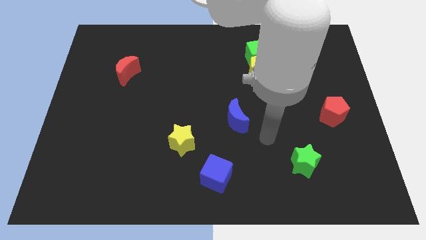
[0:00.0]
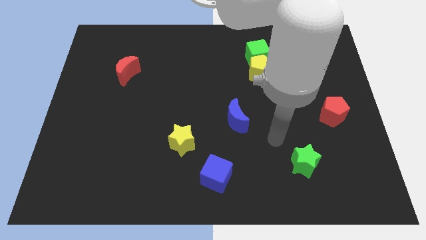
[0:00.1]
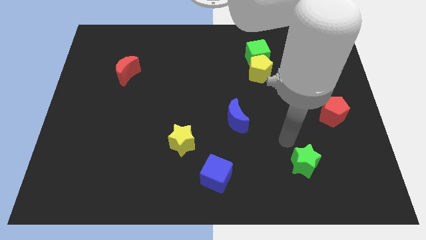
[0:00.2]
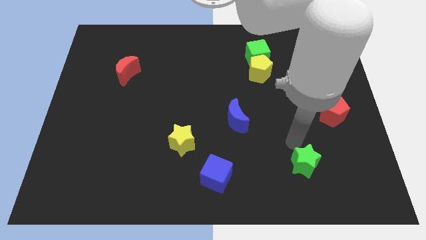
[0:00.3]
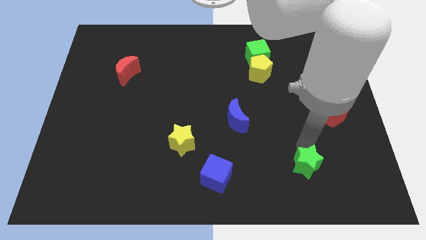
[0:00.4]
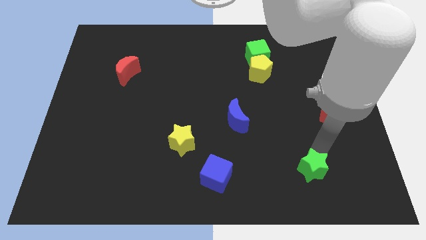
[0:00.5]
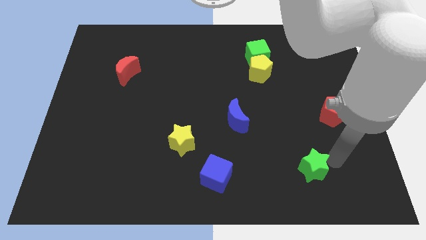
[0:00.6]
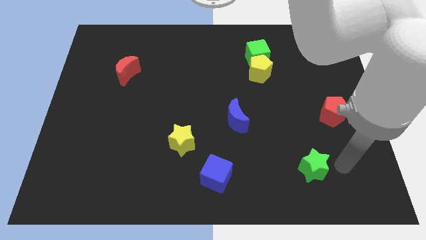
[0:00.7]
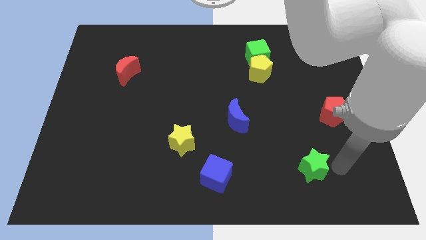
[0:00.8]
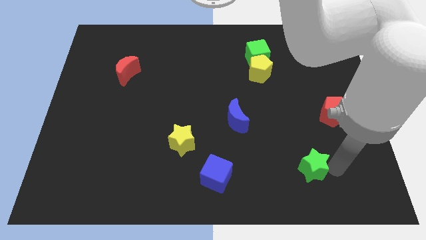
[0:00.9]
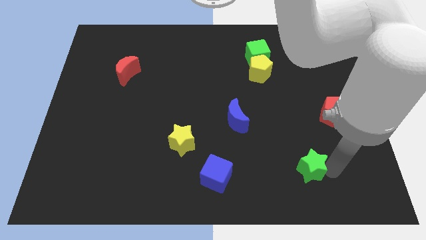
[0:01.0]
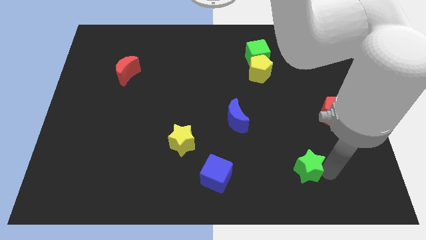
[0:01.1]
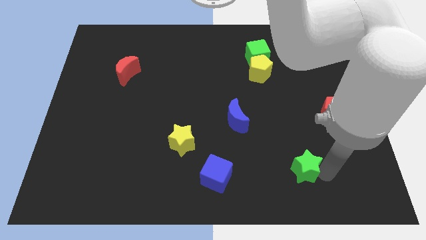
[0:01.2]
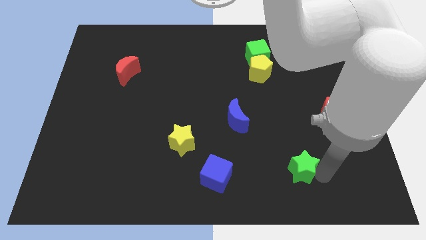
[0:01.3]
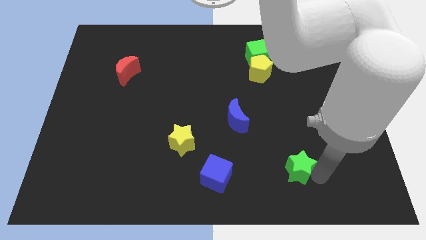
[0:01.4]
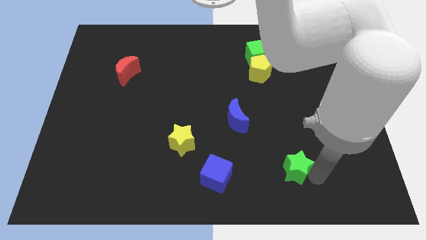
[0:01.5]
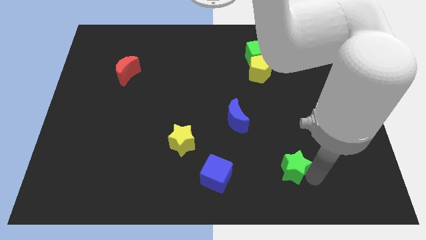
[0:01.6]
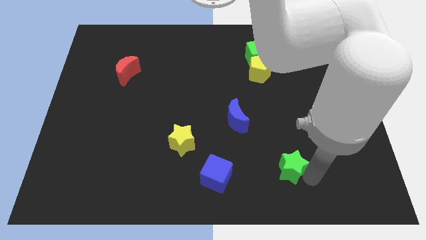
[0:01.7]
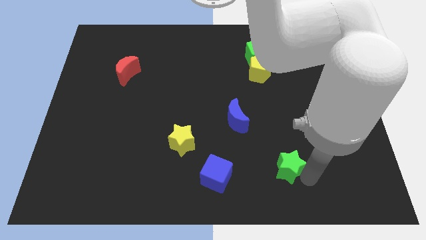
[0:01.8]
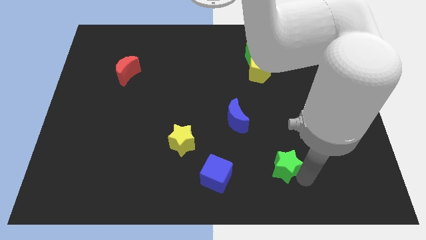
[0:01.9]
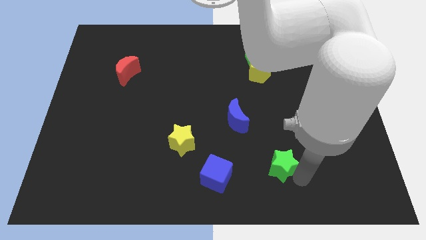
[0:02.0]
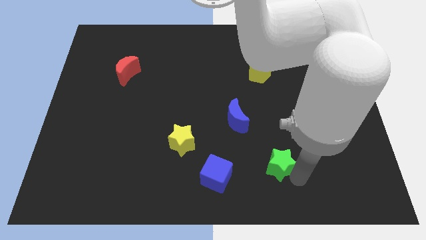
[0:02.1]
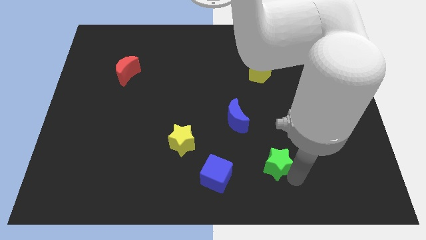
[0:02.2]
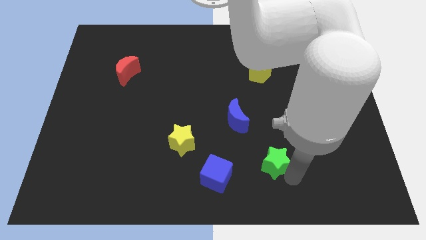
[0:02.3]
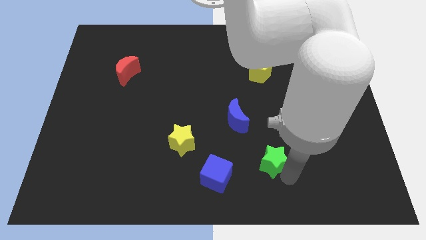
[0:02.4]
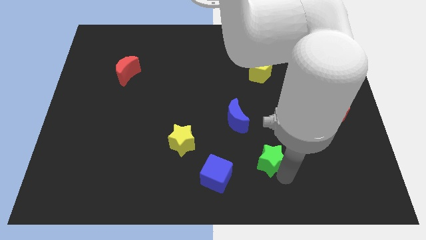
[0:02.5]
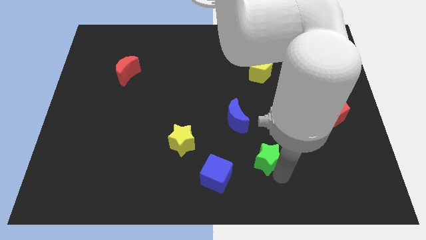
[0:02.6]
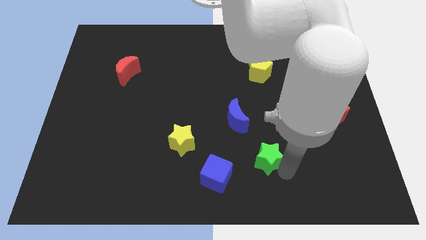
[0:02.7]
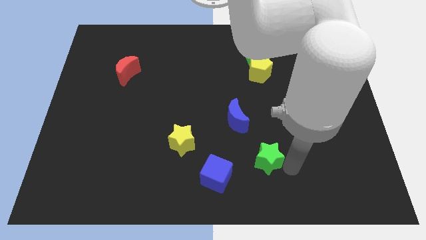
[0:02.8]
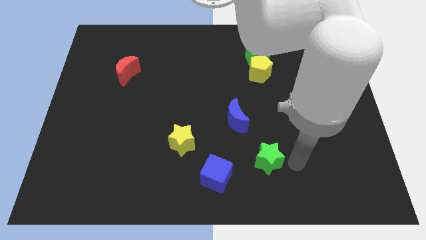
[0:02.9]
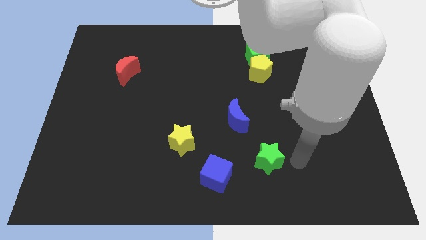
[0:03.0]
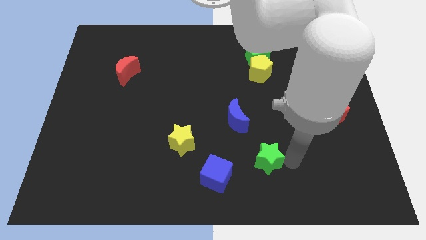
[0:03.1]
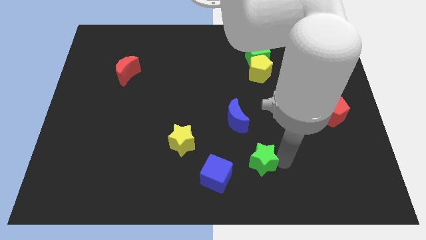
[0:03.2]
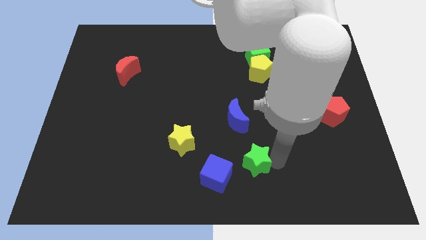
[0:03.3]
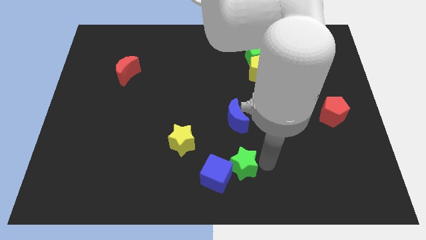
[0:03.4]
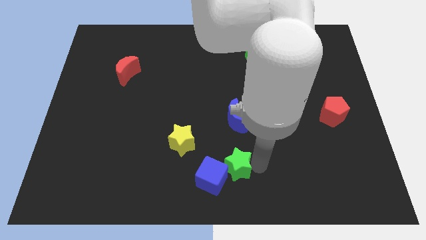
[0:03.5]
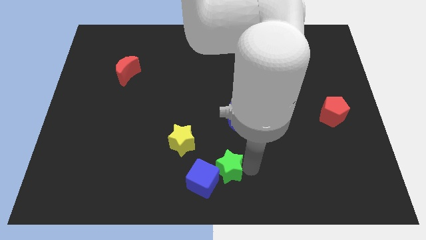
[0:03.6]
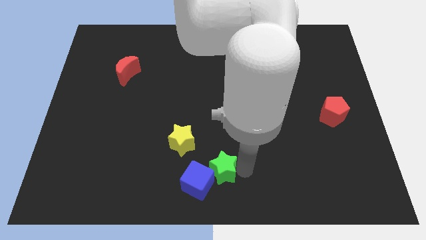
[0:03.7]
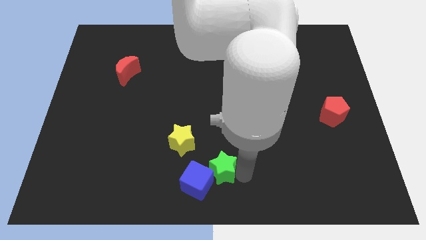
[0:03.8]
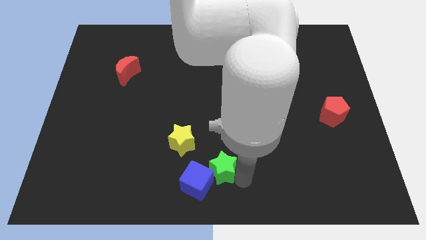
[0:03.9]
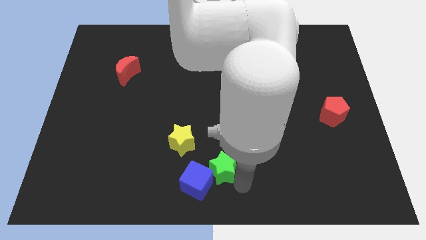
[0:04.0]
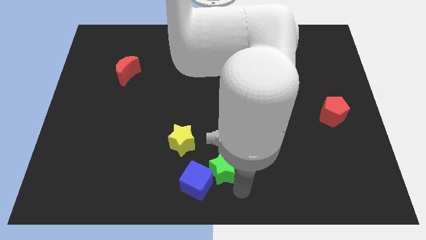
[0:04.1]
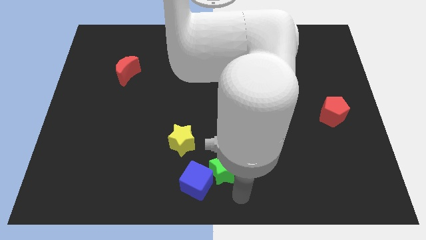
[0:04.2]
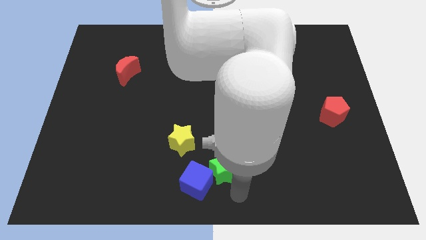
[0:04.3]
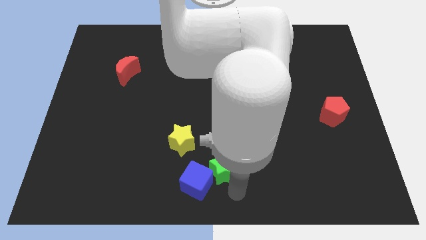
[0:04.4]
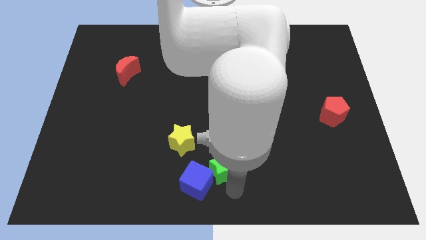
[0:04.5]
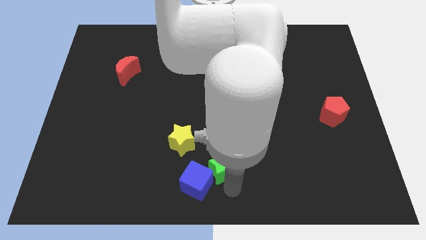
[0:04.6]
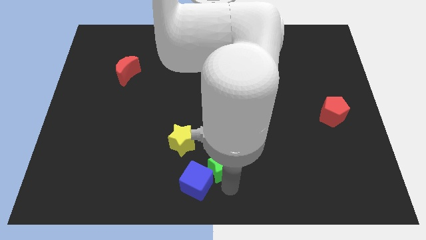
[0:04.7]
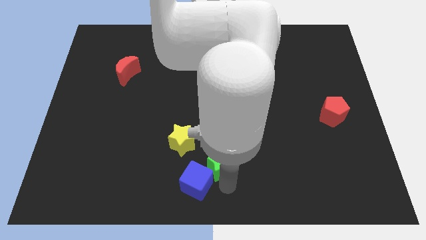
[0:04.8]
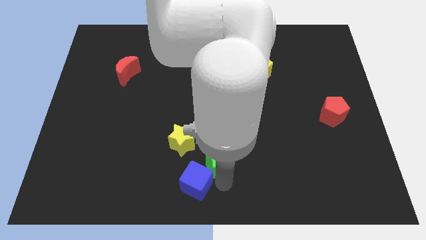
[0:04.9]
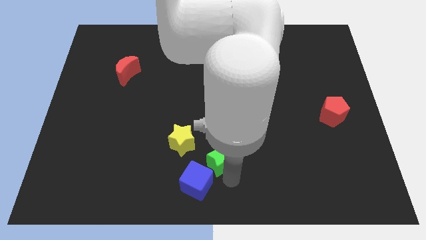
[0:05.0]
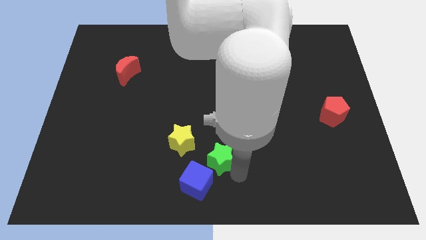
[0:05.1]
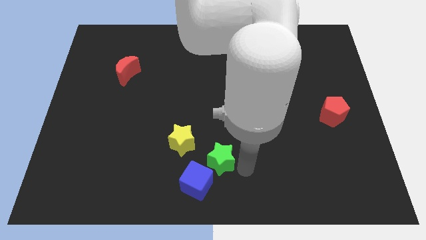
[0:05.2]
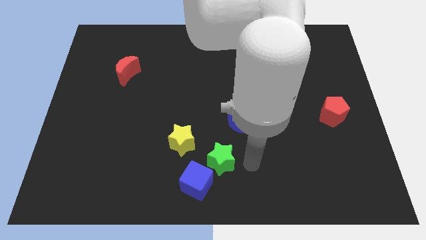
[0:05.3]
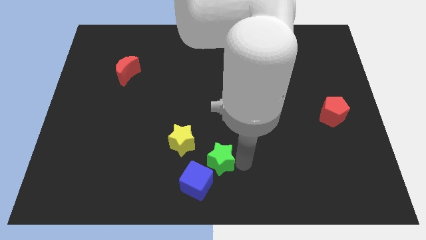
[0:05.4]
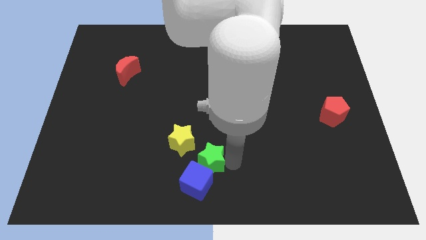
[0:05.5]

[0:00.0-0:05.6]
push the green star left

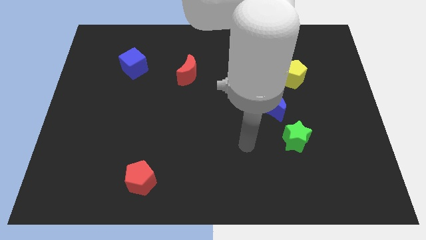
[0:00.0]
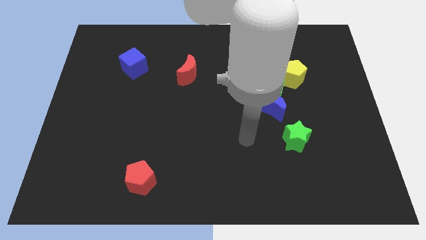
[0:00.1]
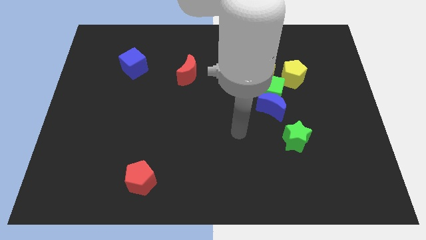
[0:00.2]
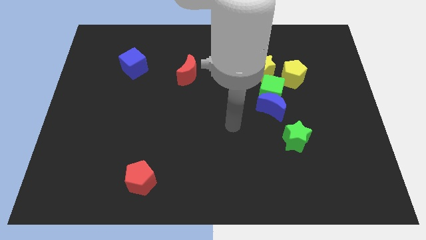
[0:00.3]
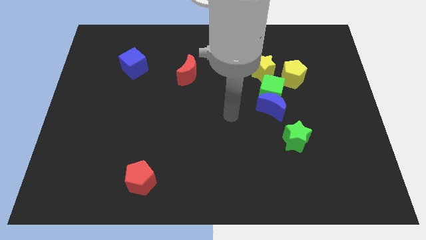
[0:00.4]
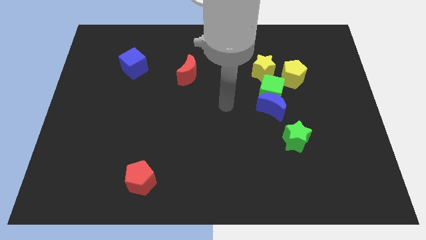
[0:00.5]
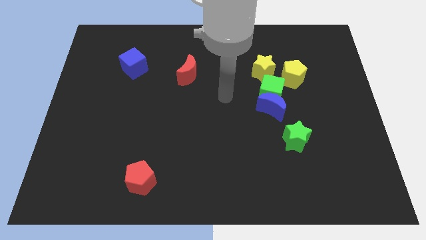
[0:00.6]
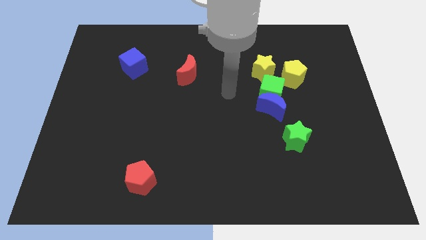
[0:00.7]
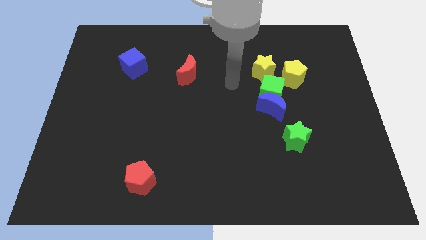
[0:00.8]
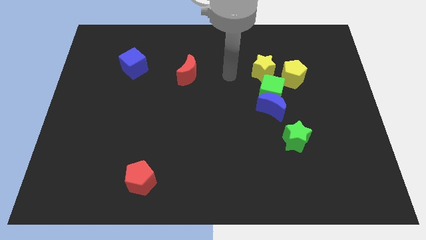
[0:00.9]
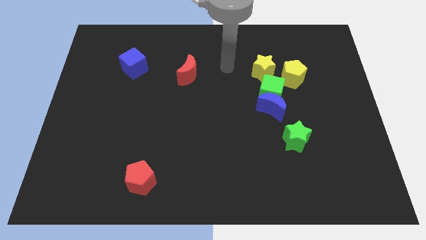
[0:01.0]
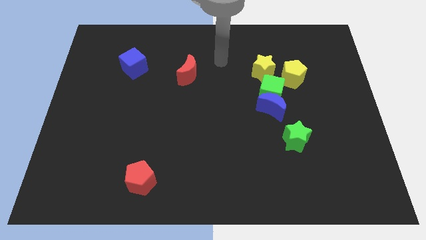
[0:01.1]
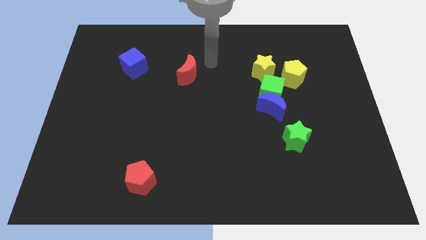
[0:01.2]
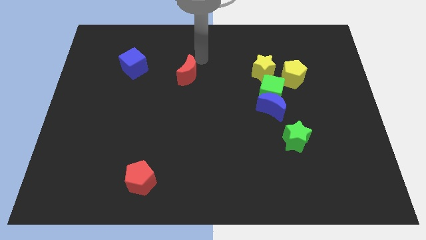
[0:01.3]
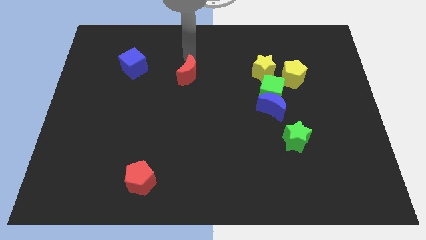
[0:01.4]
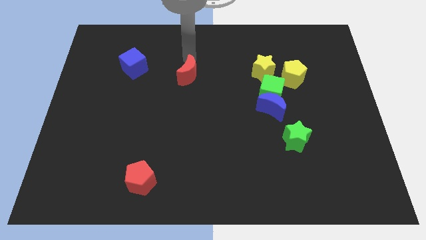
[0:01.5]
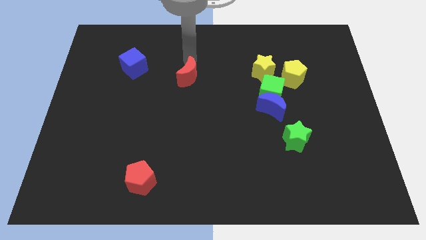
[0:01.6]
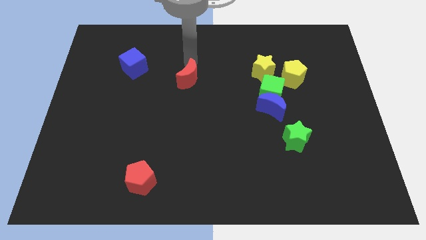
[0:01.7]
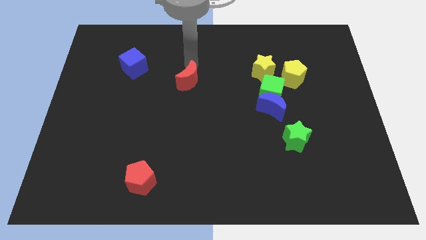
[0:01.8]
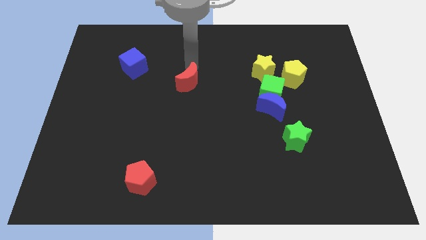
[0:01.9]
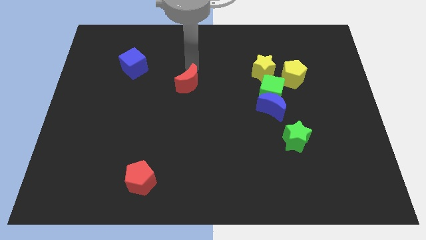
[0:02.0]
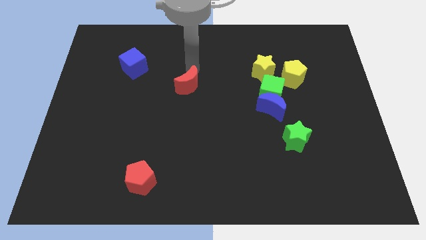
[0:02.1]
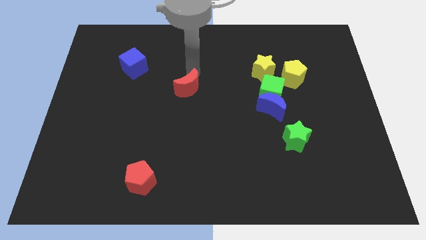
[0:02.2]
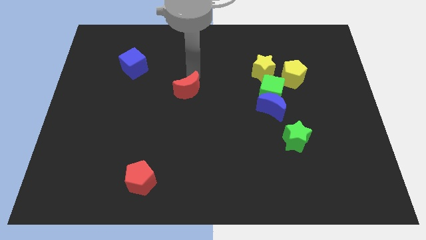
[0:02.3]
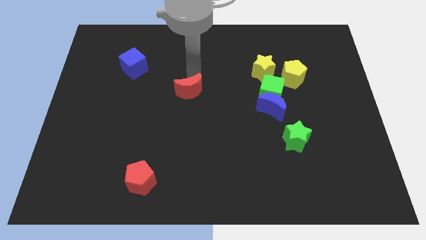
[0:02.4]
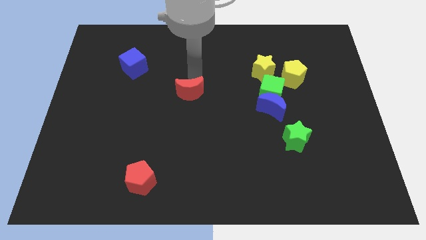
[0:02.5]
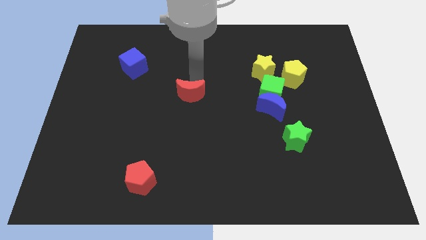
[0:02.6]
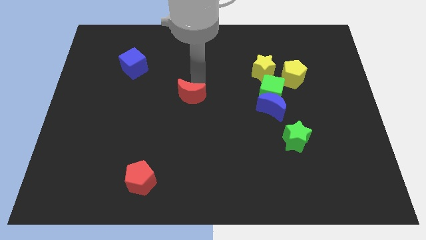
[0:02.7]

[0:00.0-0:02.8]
move the red moon down a bit
